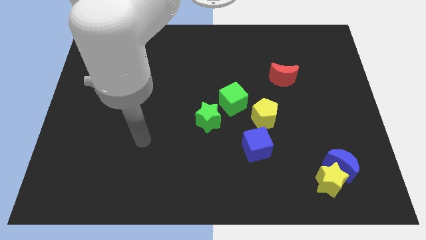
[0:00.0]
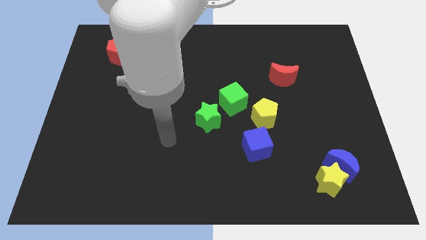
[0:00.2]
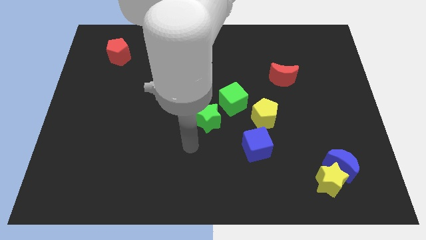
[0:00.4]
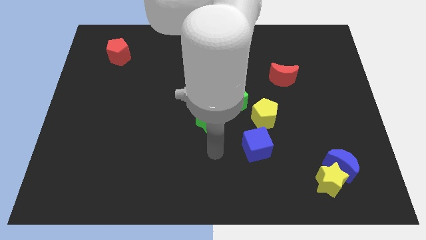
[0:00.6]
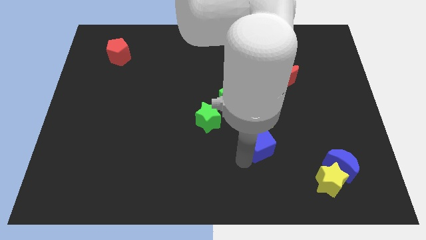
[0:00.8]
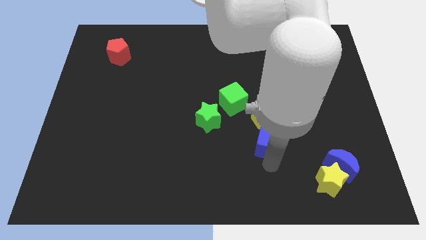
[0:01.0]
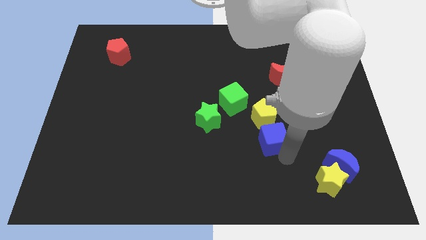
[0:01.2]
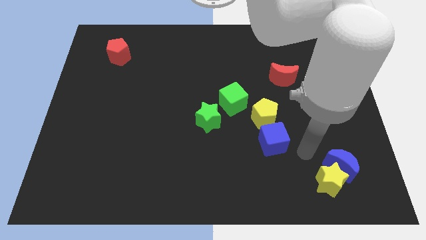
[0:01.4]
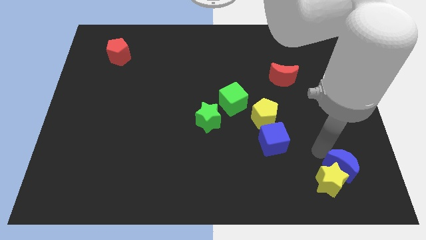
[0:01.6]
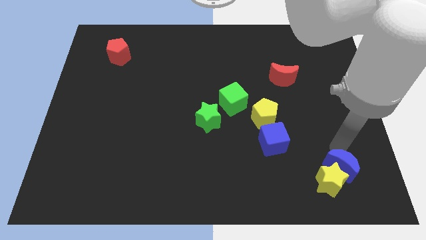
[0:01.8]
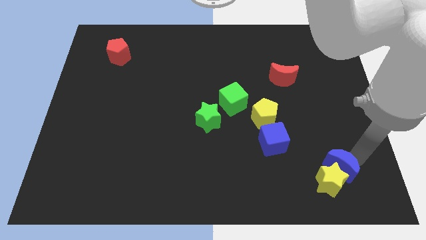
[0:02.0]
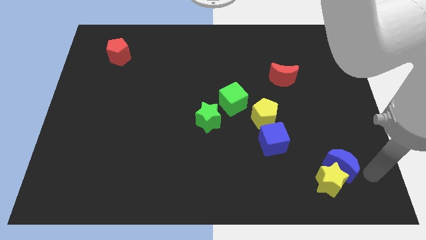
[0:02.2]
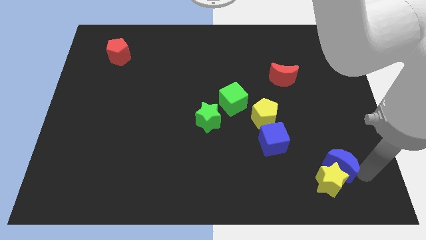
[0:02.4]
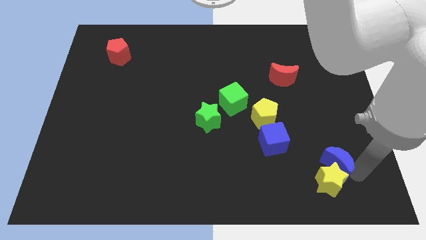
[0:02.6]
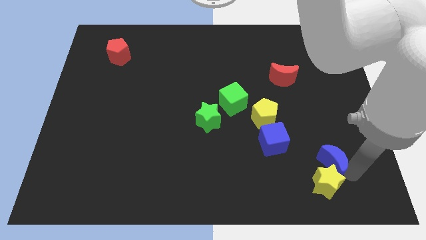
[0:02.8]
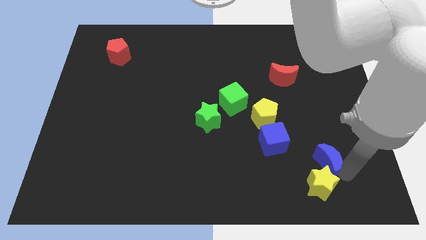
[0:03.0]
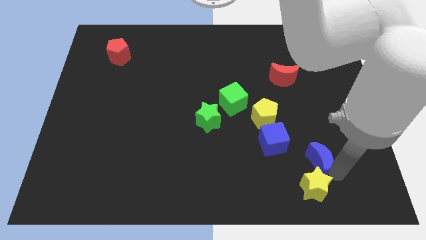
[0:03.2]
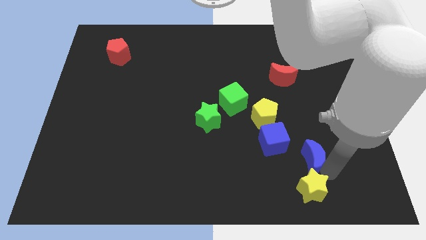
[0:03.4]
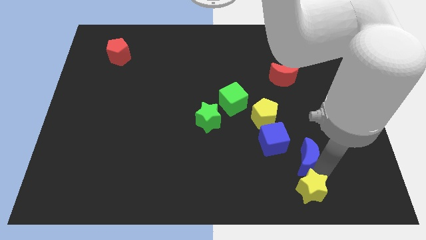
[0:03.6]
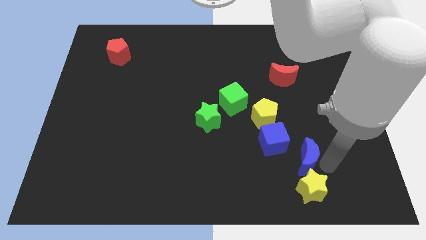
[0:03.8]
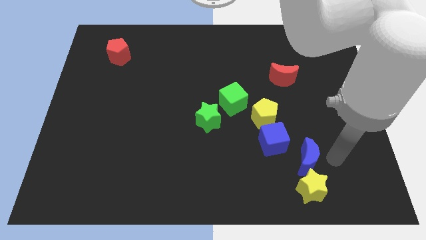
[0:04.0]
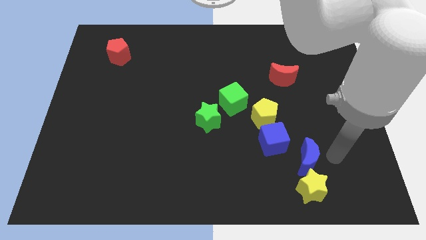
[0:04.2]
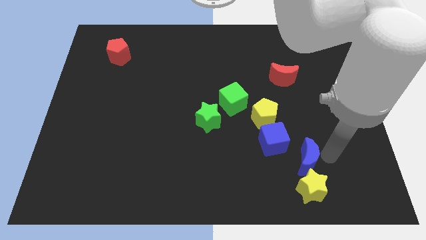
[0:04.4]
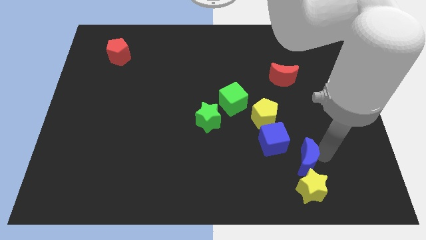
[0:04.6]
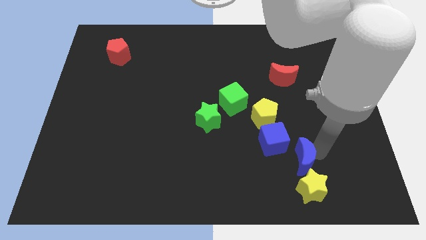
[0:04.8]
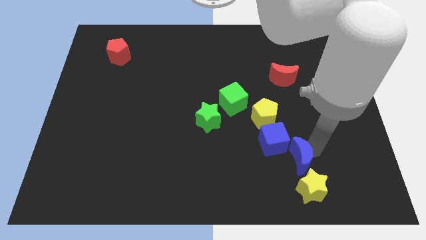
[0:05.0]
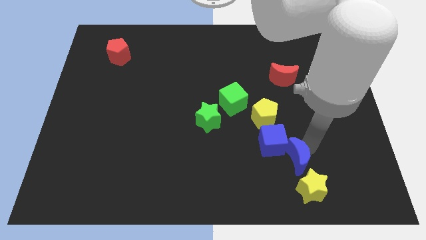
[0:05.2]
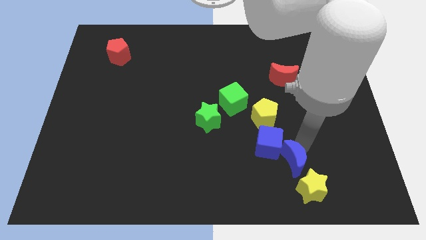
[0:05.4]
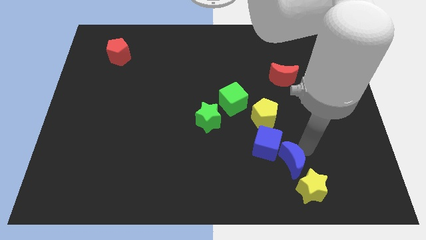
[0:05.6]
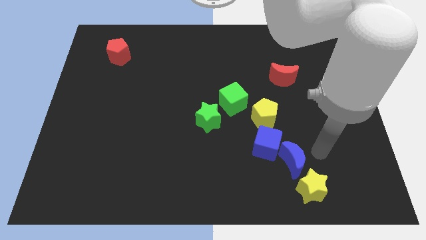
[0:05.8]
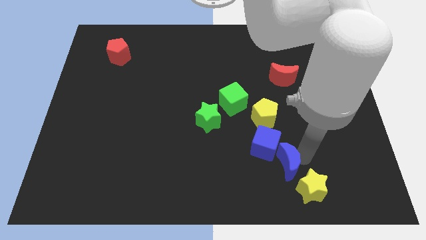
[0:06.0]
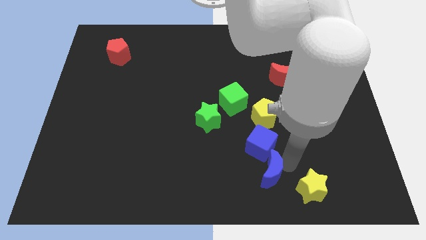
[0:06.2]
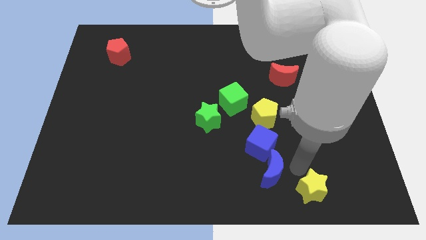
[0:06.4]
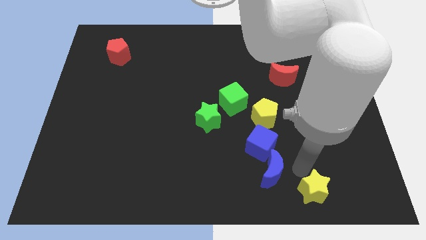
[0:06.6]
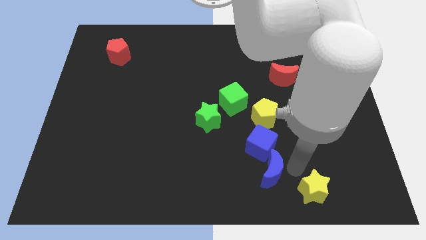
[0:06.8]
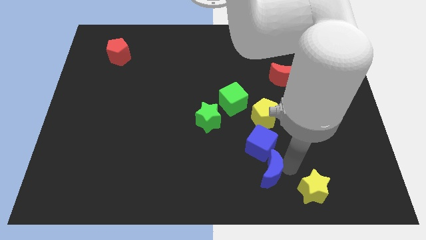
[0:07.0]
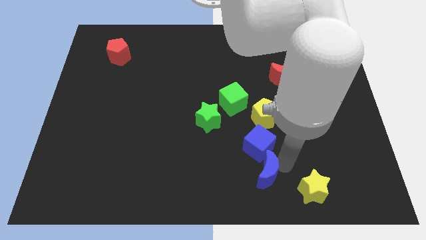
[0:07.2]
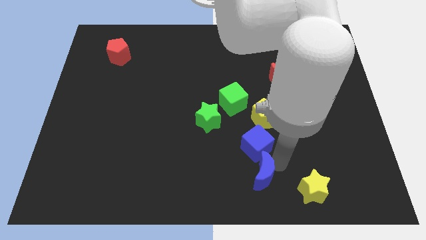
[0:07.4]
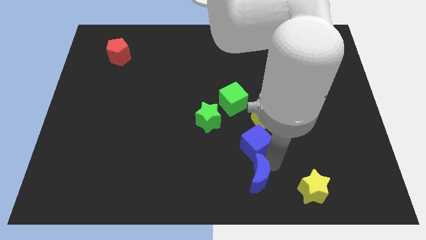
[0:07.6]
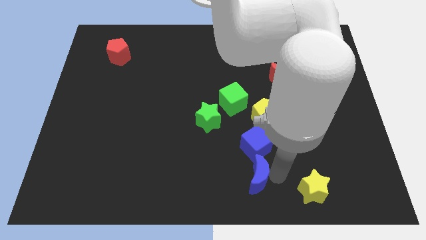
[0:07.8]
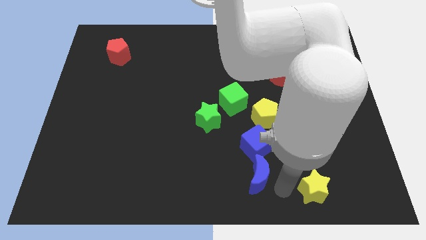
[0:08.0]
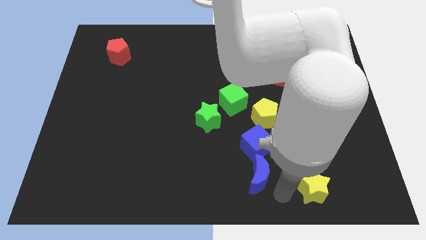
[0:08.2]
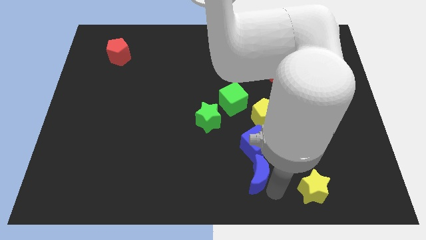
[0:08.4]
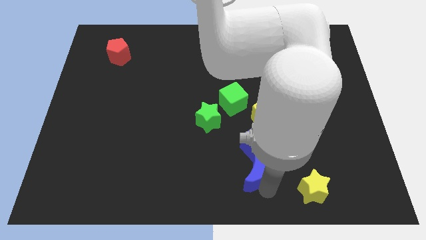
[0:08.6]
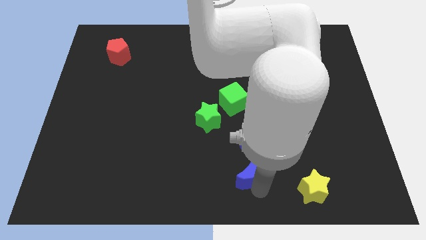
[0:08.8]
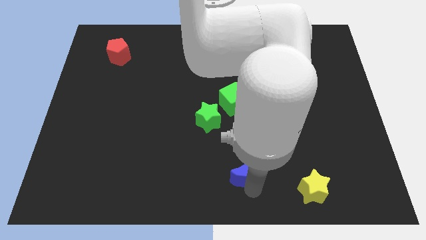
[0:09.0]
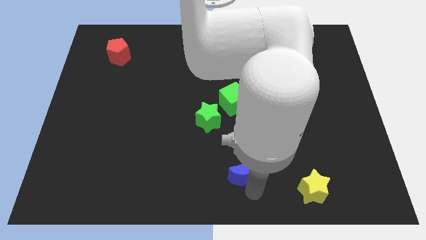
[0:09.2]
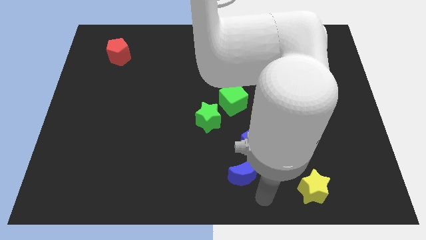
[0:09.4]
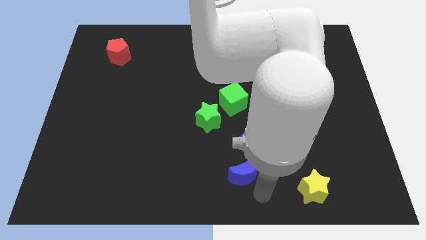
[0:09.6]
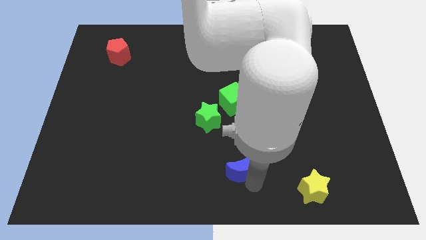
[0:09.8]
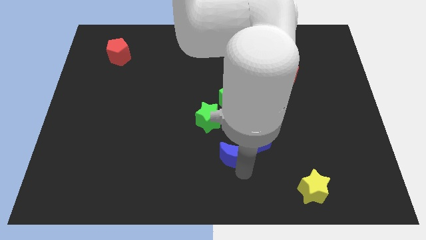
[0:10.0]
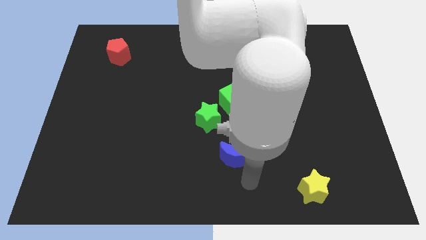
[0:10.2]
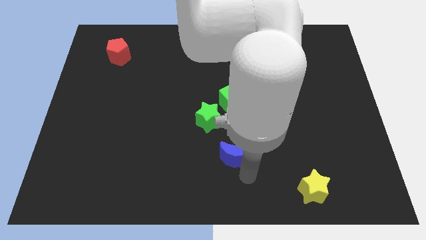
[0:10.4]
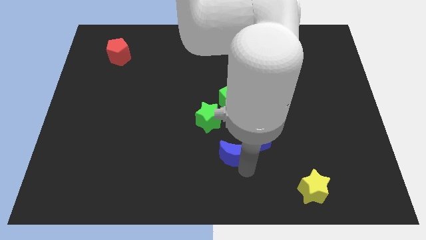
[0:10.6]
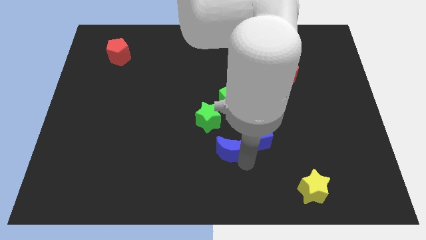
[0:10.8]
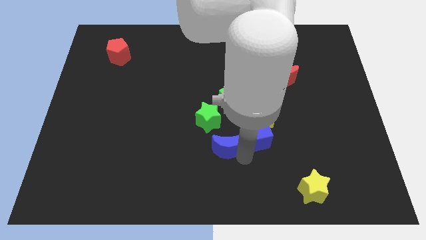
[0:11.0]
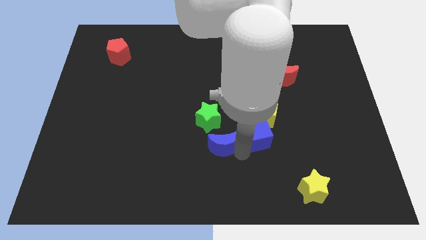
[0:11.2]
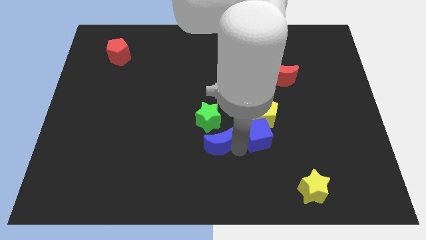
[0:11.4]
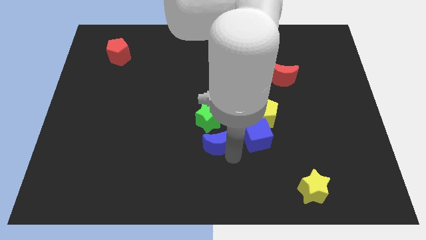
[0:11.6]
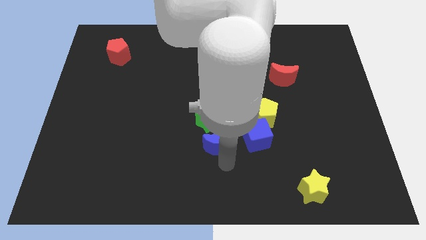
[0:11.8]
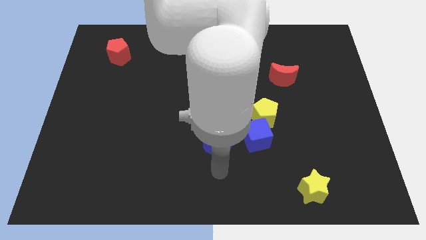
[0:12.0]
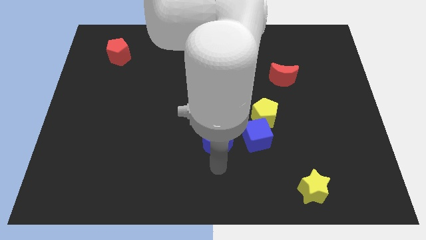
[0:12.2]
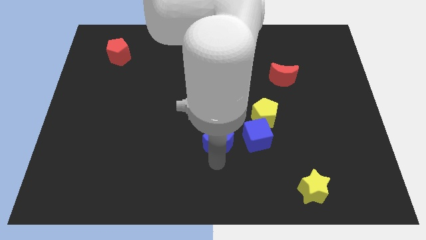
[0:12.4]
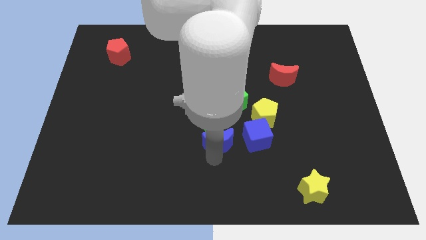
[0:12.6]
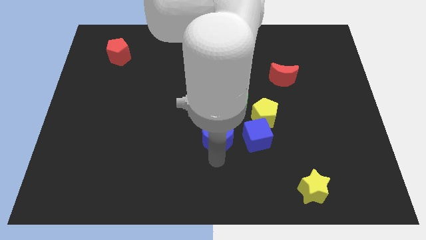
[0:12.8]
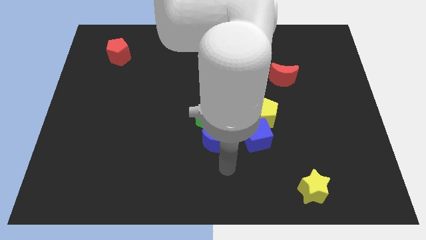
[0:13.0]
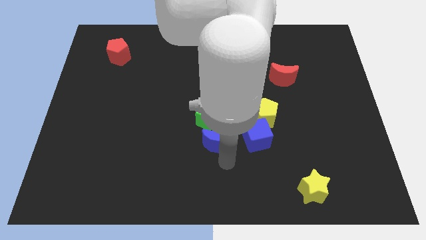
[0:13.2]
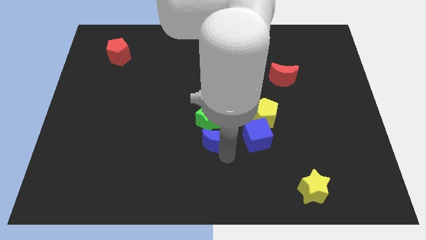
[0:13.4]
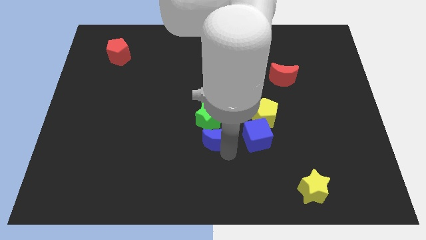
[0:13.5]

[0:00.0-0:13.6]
move the blue moon towards the green star

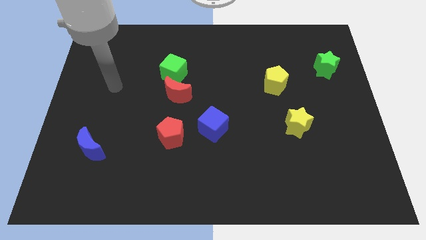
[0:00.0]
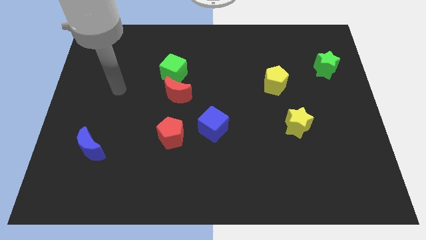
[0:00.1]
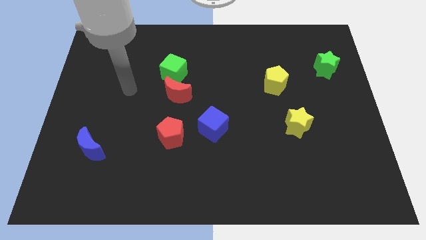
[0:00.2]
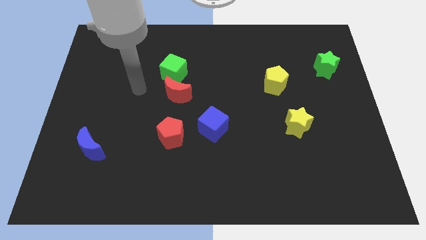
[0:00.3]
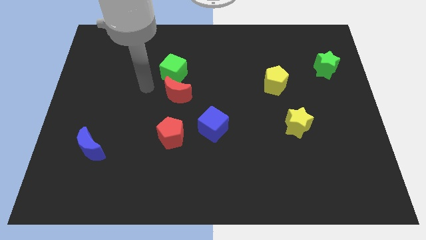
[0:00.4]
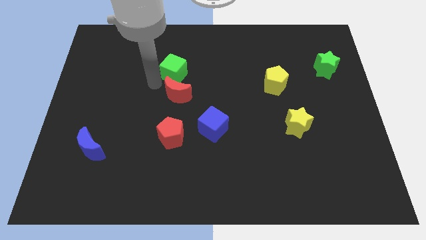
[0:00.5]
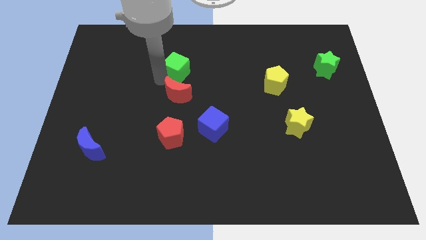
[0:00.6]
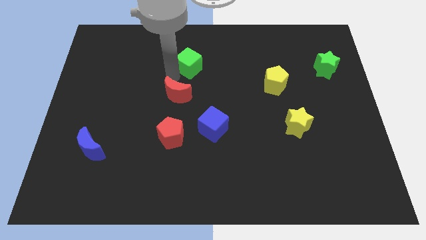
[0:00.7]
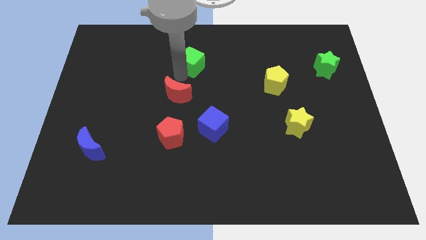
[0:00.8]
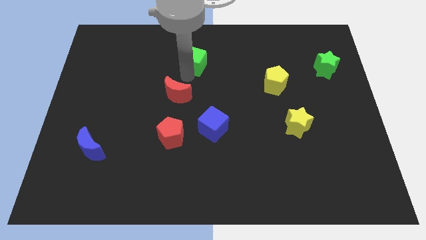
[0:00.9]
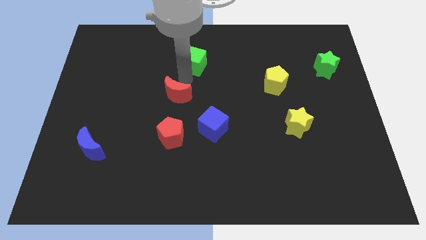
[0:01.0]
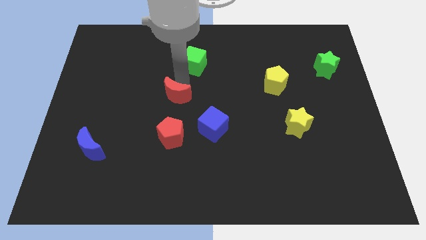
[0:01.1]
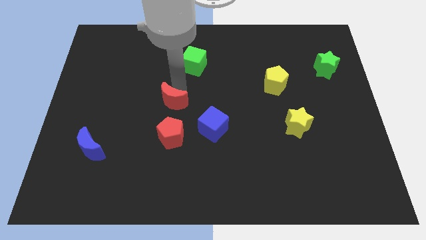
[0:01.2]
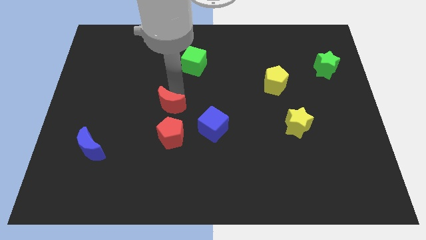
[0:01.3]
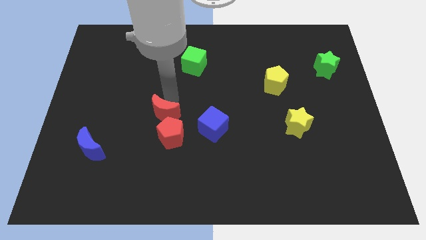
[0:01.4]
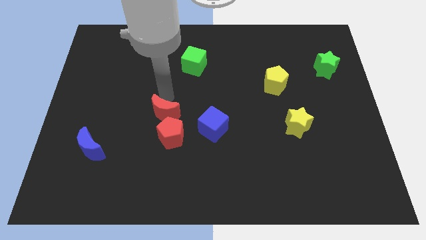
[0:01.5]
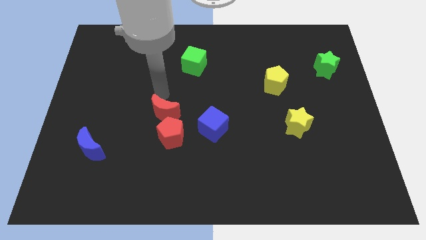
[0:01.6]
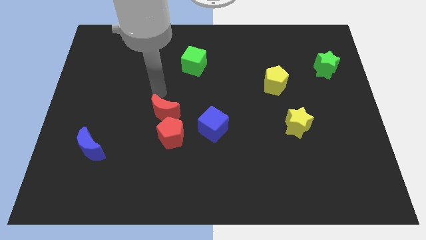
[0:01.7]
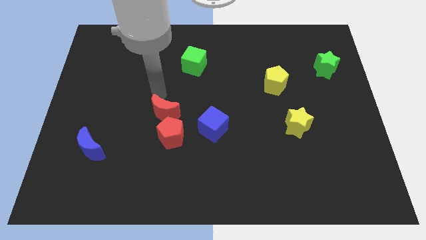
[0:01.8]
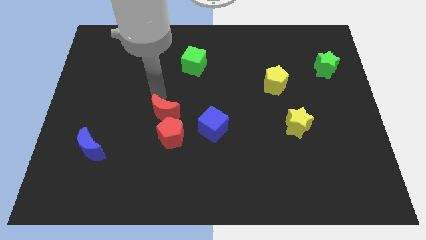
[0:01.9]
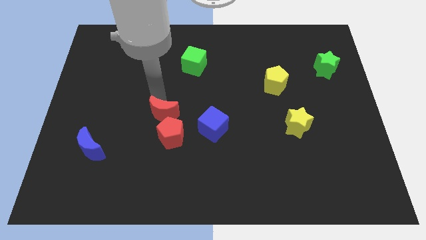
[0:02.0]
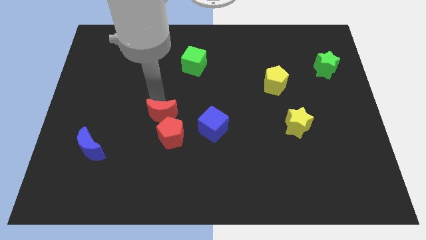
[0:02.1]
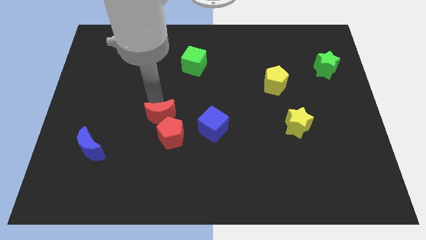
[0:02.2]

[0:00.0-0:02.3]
move the red moon close to the red pentagon
